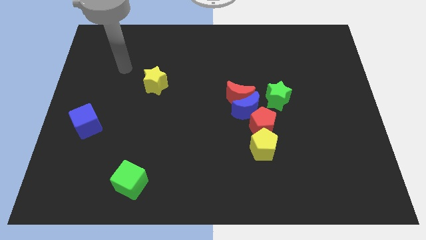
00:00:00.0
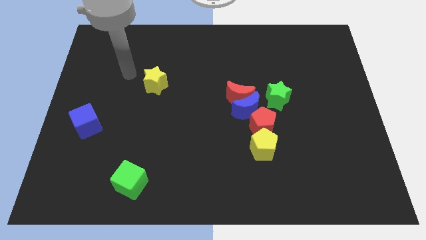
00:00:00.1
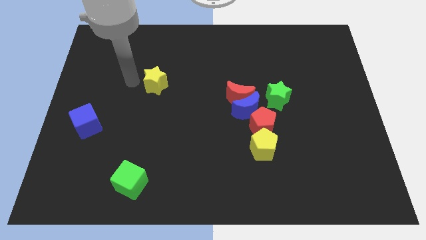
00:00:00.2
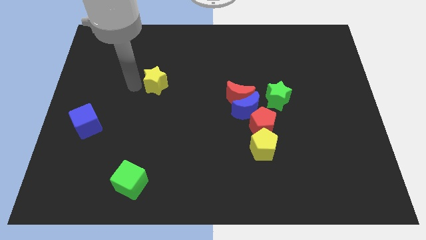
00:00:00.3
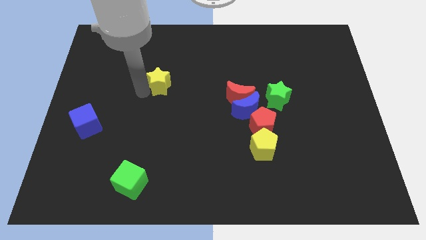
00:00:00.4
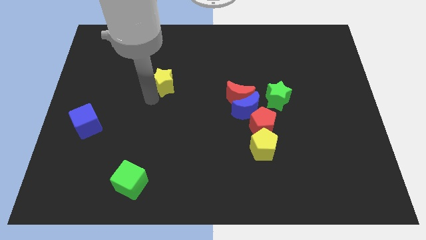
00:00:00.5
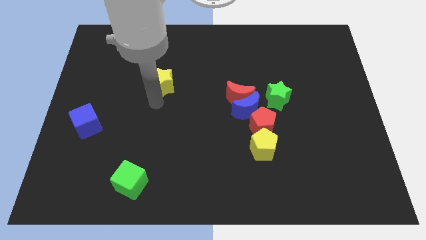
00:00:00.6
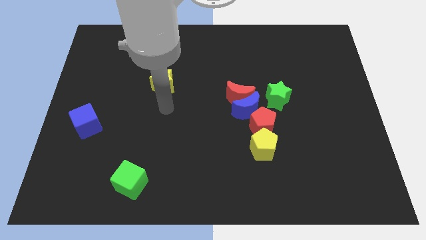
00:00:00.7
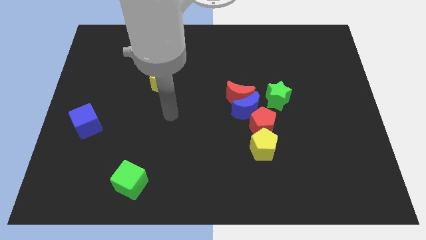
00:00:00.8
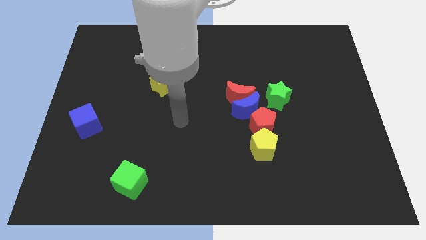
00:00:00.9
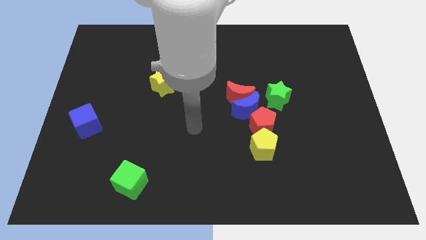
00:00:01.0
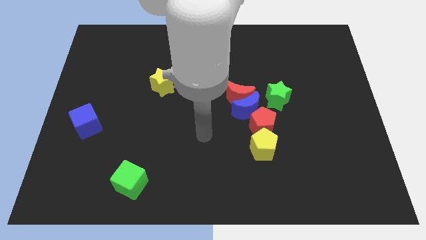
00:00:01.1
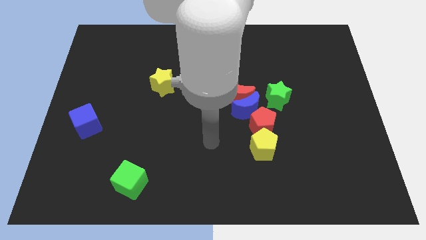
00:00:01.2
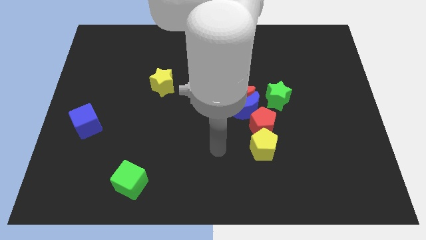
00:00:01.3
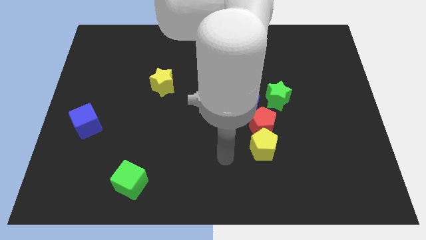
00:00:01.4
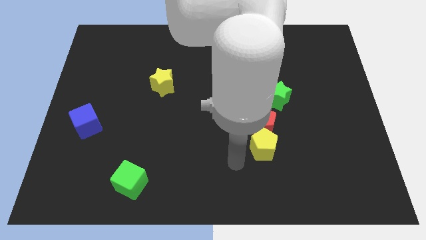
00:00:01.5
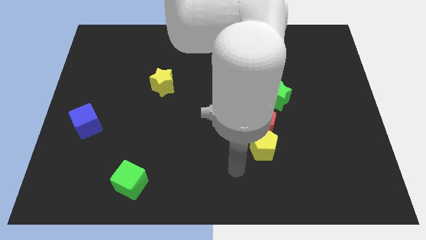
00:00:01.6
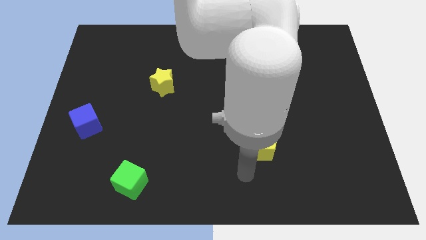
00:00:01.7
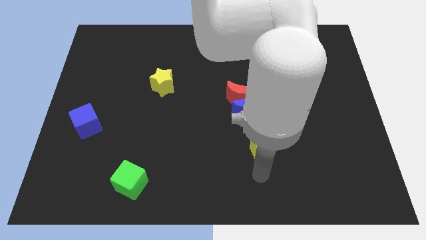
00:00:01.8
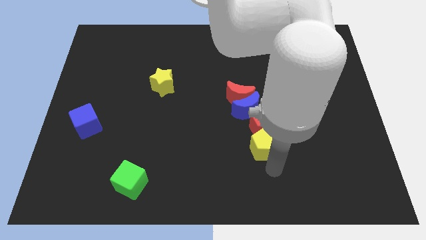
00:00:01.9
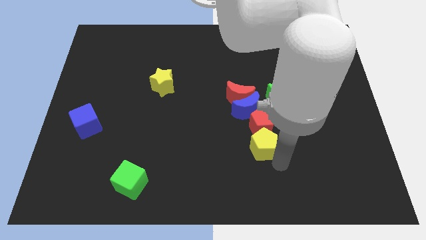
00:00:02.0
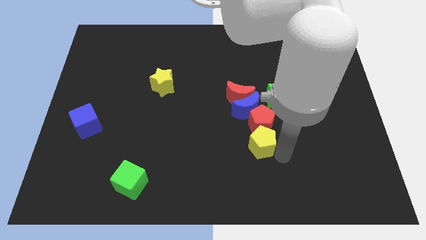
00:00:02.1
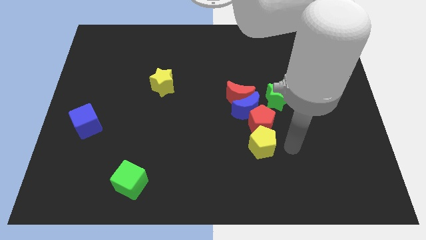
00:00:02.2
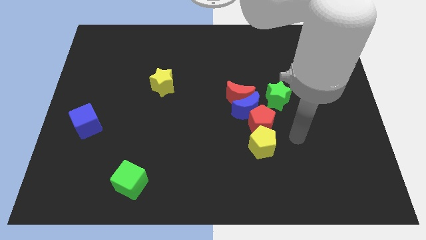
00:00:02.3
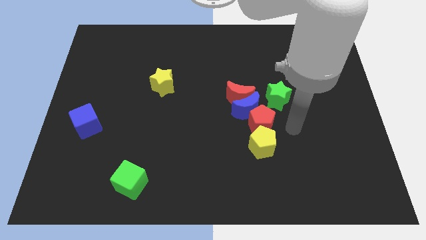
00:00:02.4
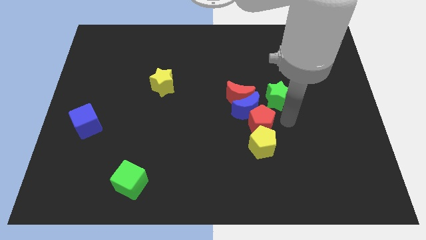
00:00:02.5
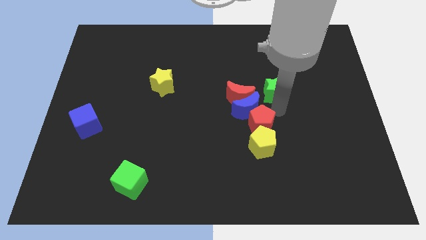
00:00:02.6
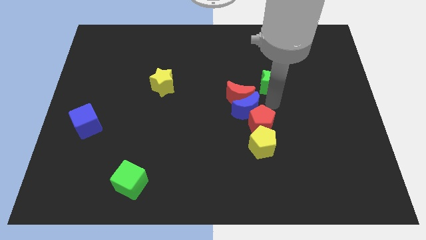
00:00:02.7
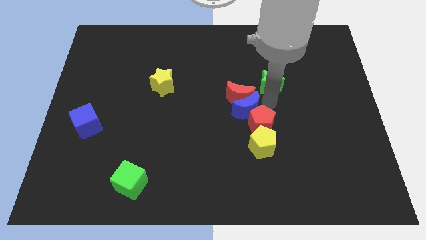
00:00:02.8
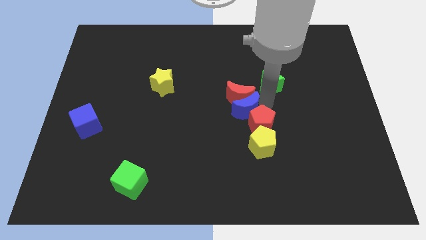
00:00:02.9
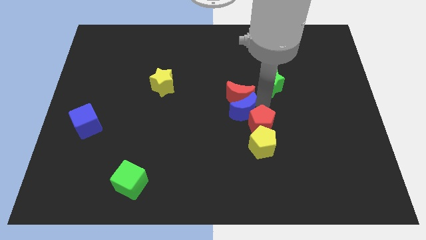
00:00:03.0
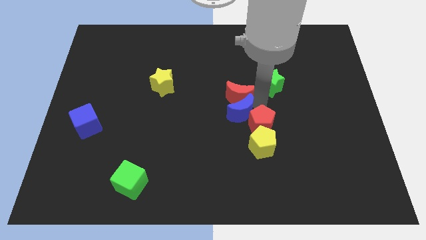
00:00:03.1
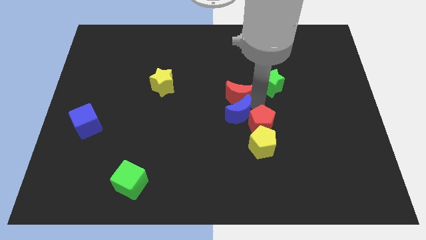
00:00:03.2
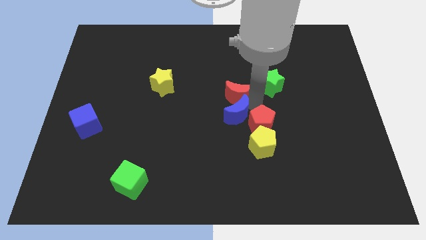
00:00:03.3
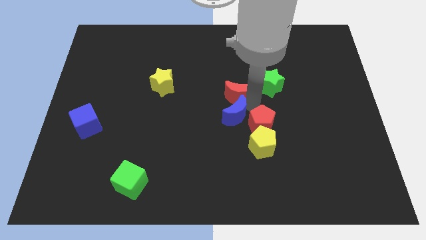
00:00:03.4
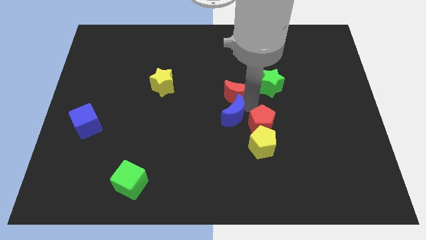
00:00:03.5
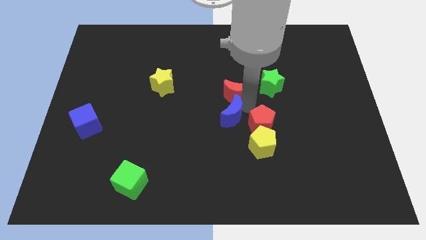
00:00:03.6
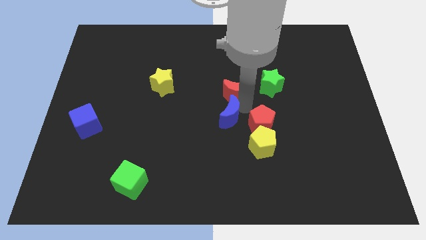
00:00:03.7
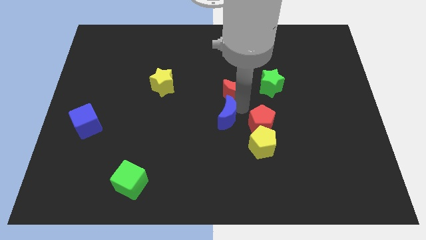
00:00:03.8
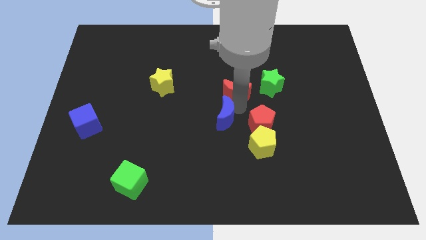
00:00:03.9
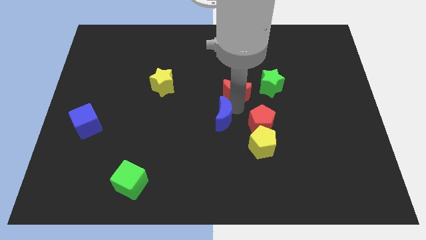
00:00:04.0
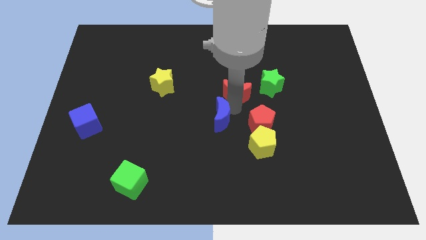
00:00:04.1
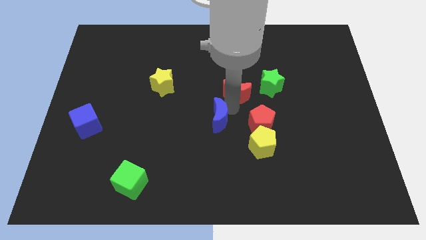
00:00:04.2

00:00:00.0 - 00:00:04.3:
separate the blue moon from the red moon, red pentagon, and green star

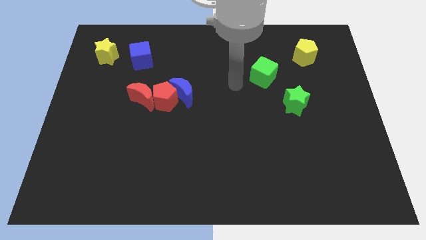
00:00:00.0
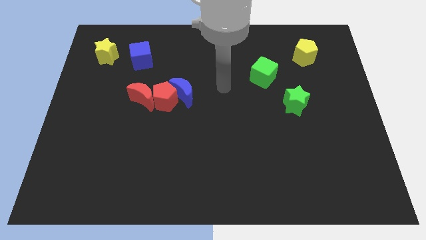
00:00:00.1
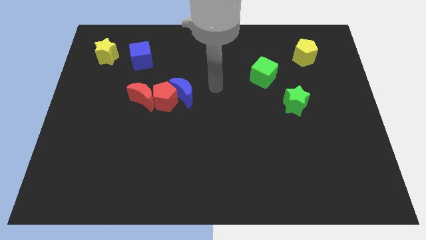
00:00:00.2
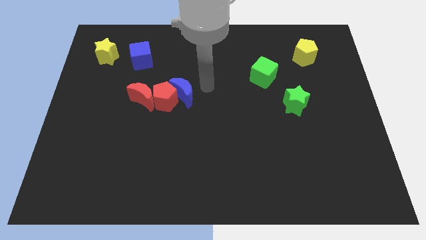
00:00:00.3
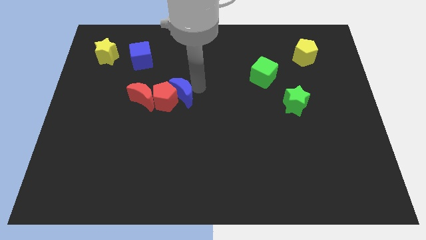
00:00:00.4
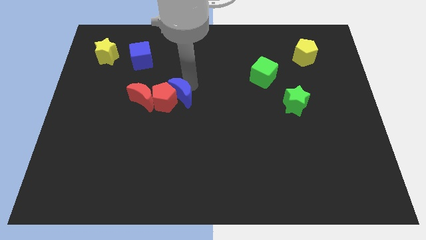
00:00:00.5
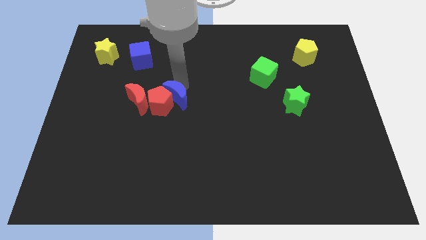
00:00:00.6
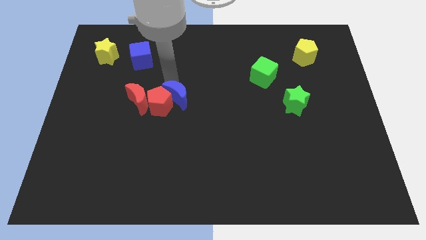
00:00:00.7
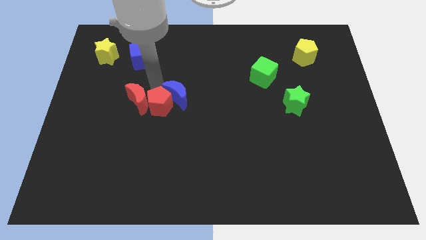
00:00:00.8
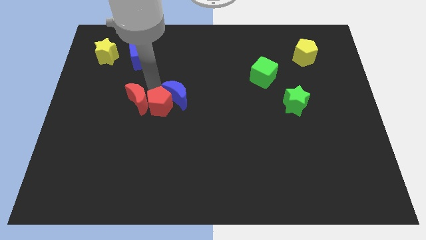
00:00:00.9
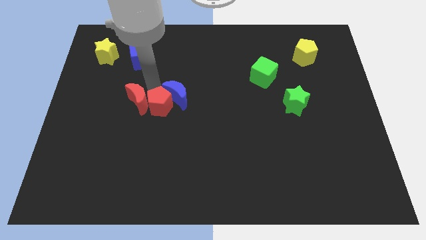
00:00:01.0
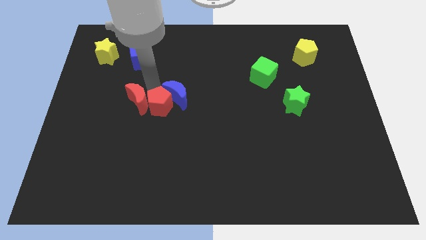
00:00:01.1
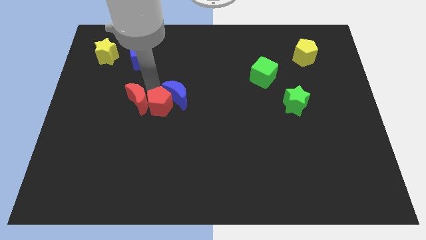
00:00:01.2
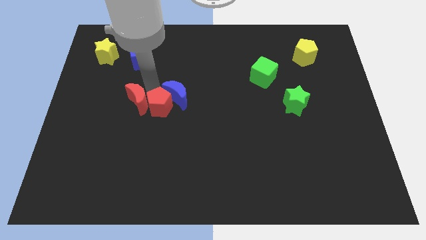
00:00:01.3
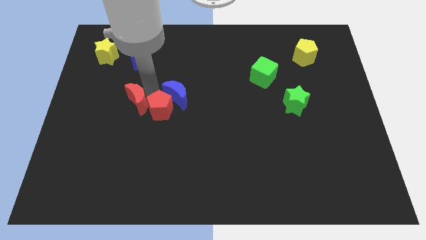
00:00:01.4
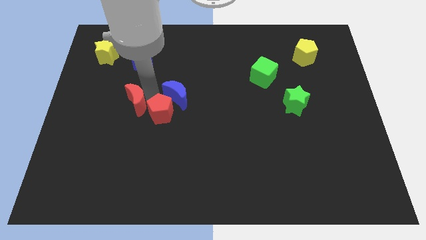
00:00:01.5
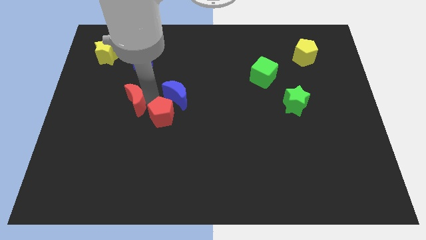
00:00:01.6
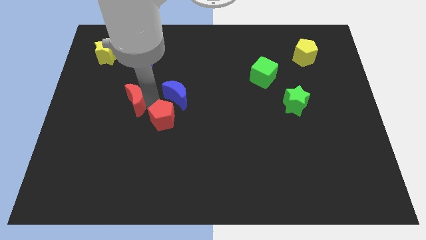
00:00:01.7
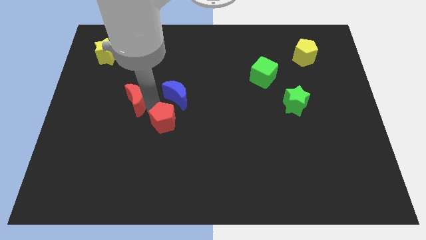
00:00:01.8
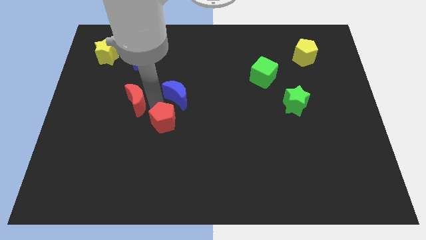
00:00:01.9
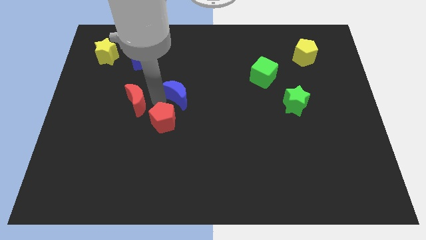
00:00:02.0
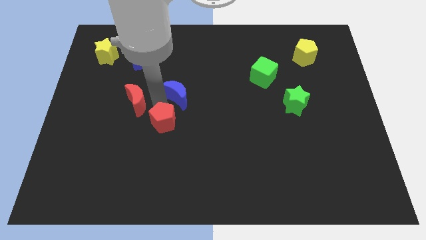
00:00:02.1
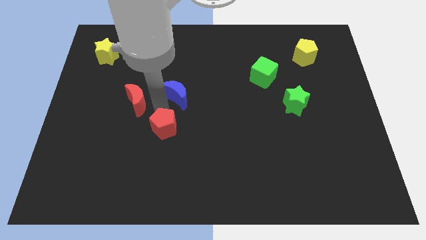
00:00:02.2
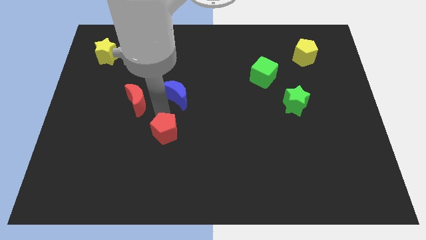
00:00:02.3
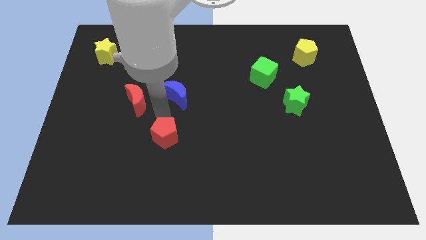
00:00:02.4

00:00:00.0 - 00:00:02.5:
move the red pentagon away from the blue moon and red moon

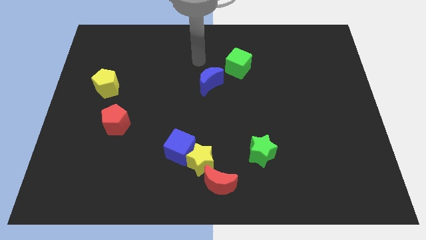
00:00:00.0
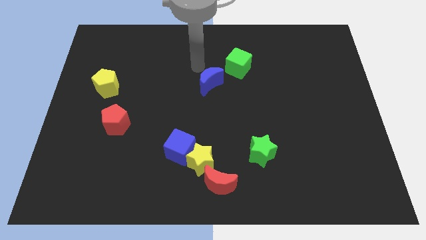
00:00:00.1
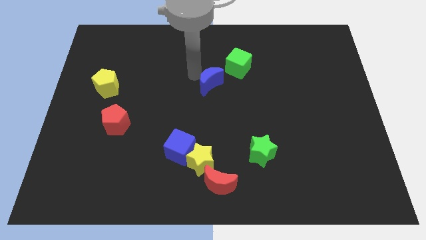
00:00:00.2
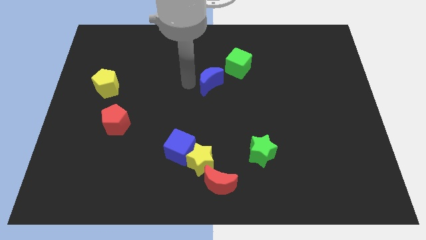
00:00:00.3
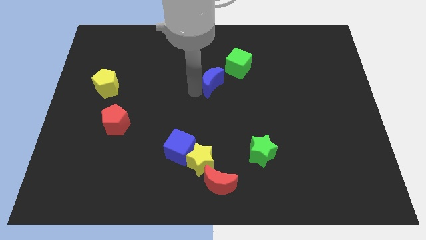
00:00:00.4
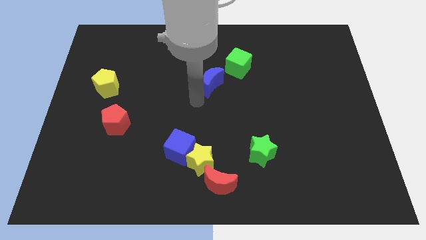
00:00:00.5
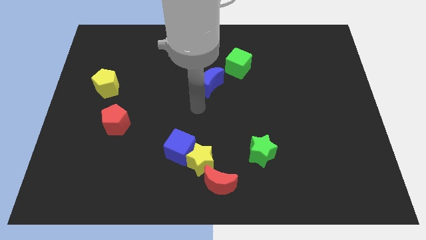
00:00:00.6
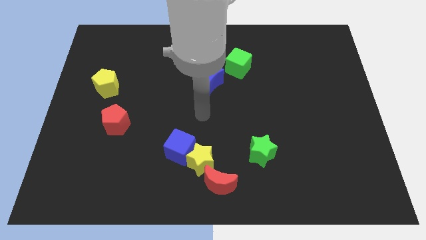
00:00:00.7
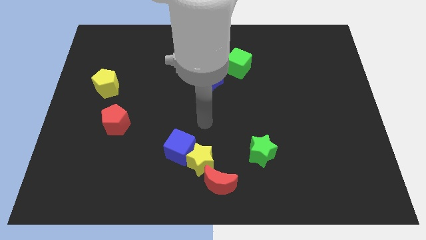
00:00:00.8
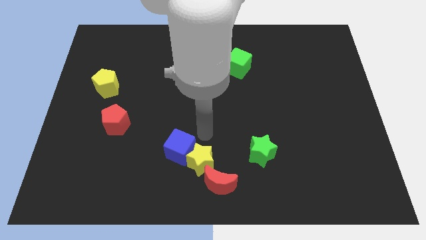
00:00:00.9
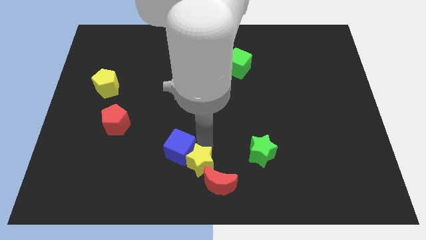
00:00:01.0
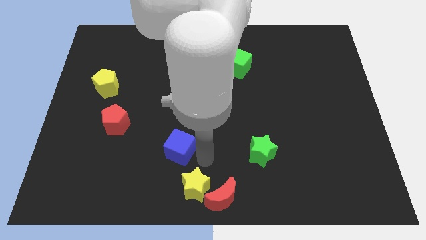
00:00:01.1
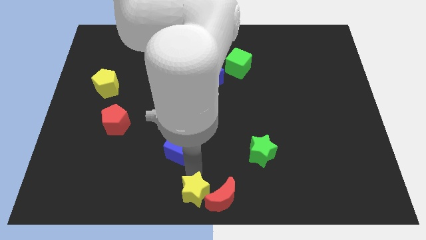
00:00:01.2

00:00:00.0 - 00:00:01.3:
separate the blue cube from the yellow star

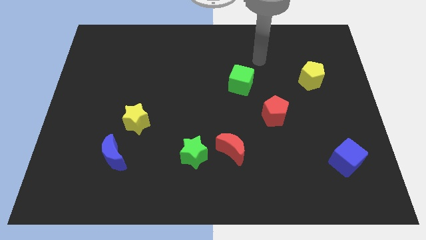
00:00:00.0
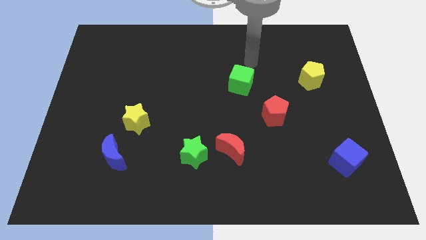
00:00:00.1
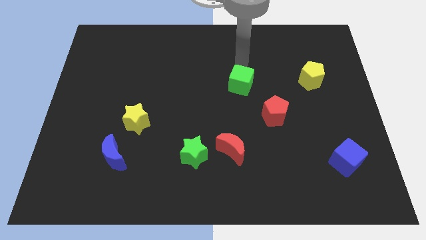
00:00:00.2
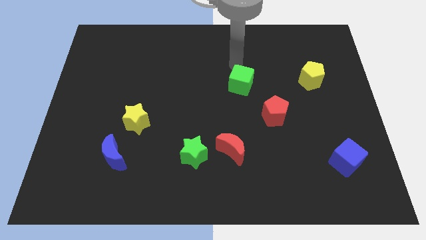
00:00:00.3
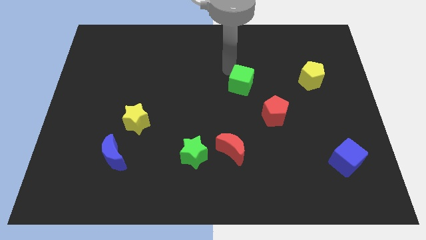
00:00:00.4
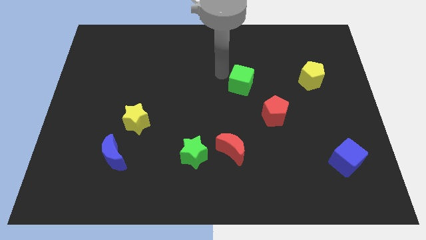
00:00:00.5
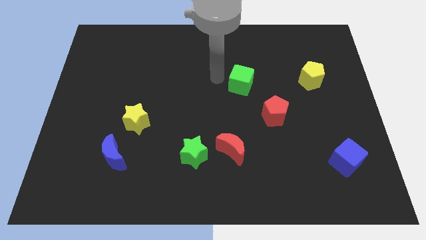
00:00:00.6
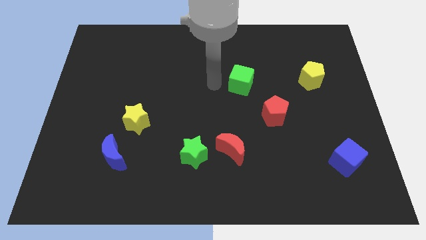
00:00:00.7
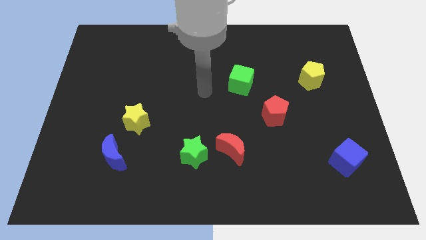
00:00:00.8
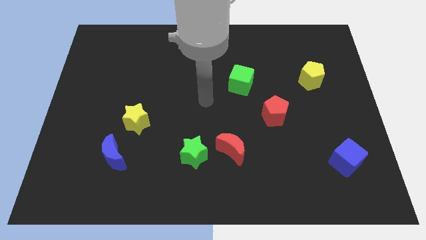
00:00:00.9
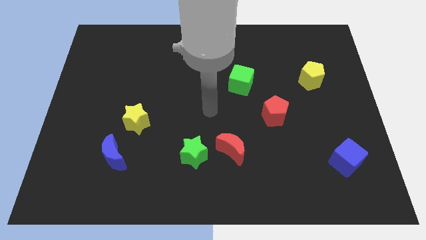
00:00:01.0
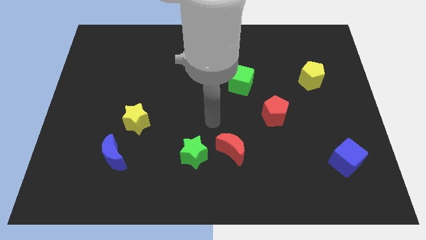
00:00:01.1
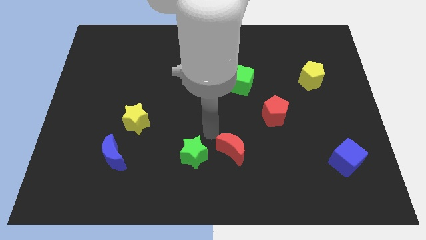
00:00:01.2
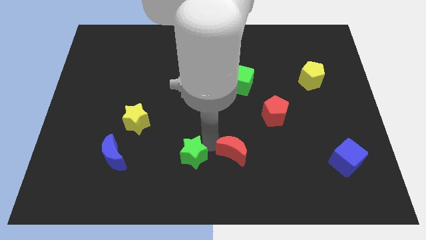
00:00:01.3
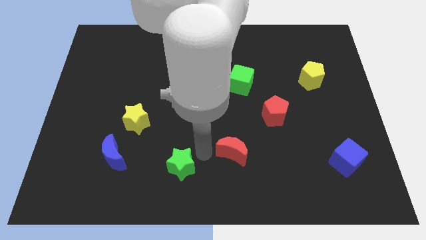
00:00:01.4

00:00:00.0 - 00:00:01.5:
pull the red moon apart from the green star
